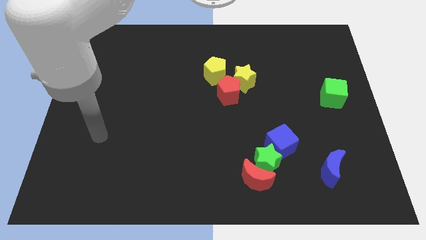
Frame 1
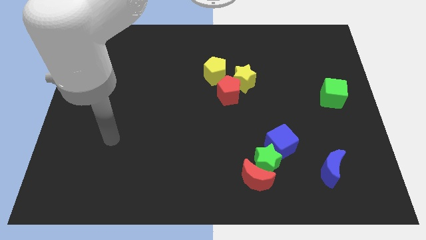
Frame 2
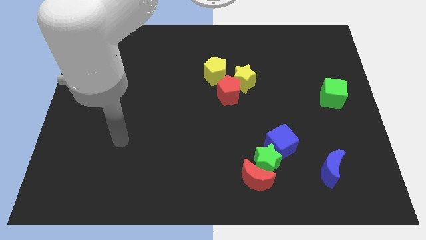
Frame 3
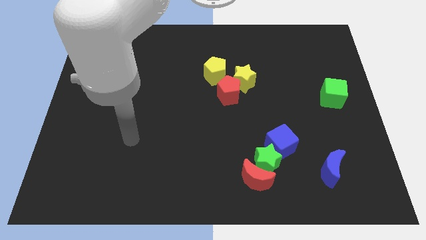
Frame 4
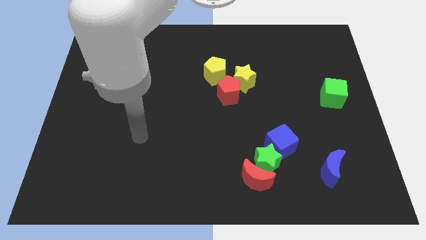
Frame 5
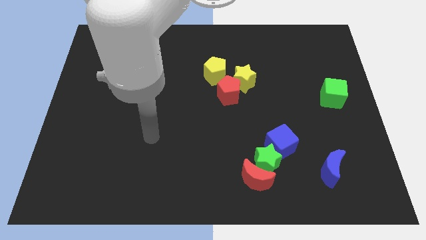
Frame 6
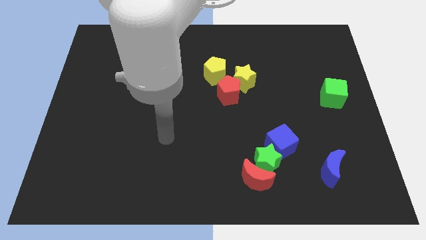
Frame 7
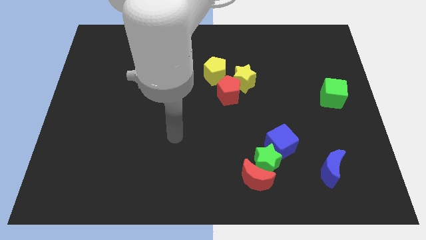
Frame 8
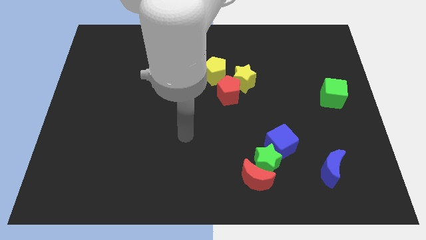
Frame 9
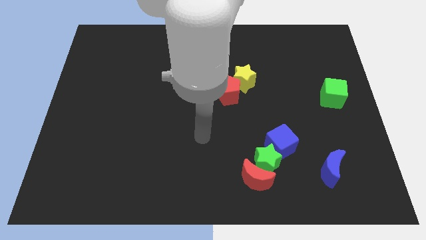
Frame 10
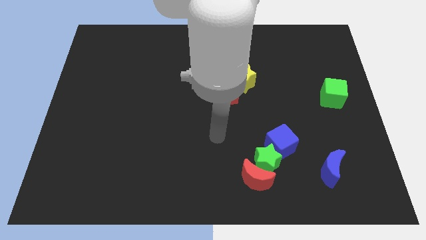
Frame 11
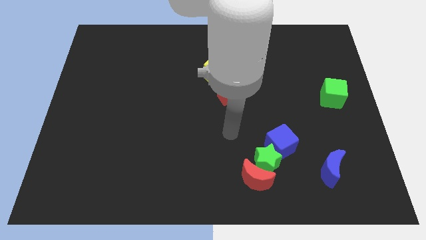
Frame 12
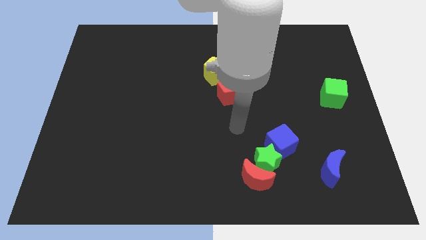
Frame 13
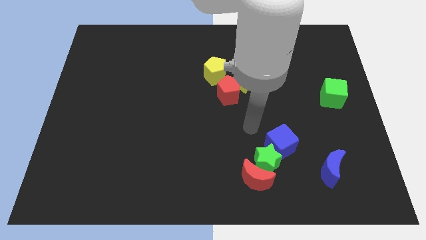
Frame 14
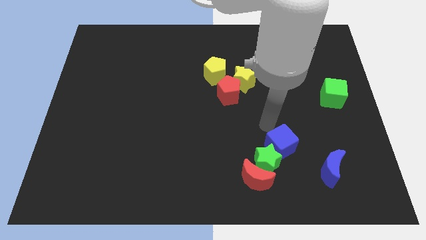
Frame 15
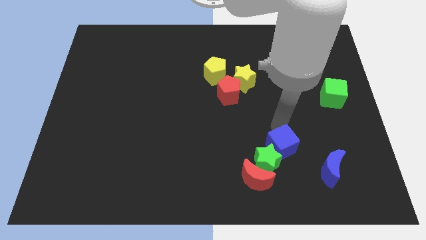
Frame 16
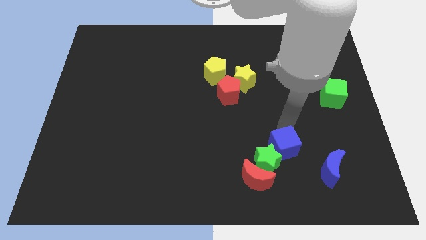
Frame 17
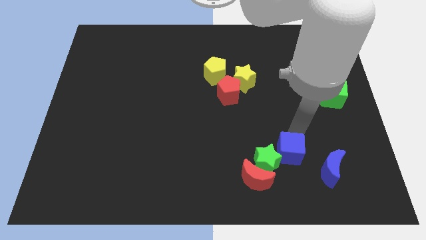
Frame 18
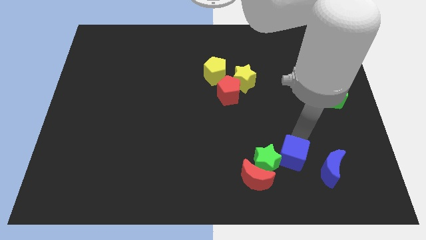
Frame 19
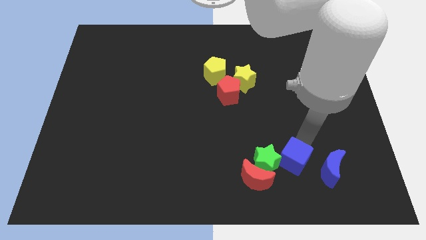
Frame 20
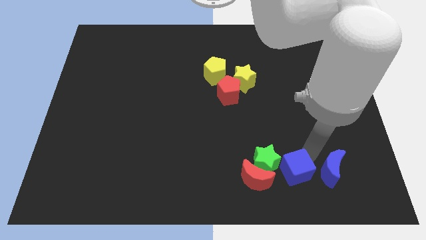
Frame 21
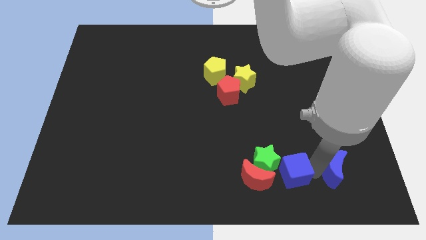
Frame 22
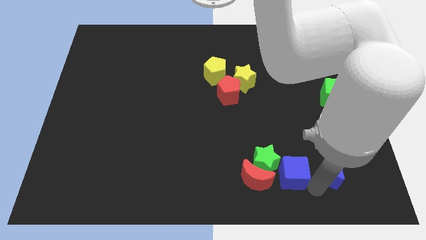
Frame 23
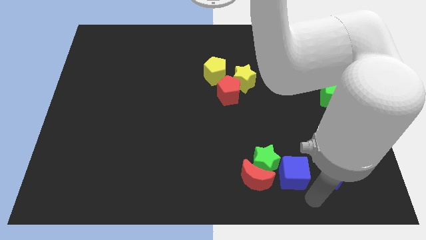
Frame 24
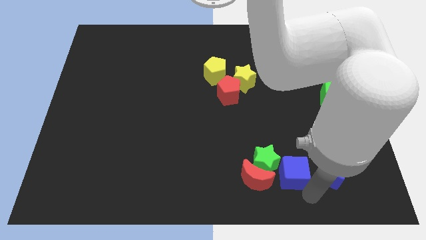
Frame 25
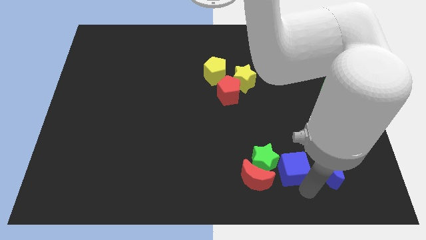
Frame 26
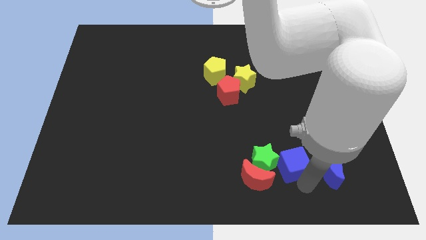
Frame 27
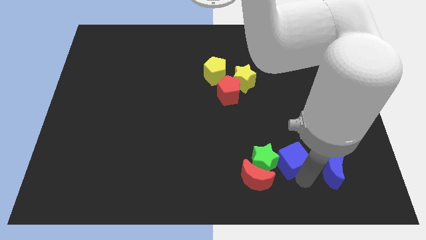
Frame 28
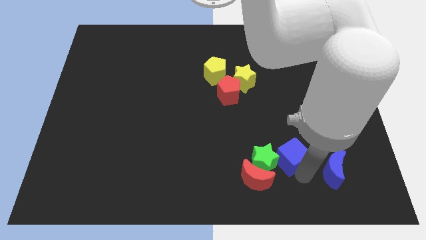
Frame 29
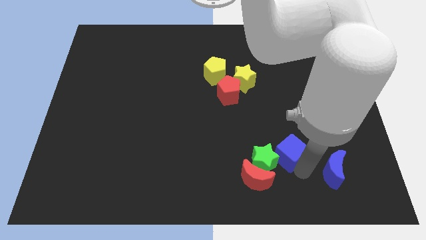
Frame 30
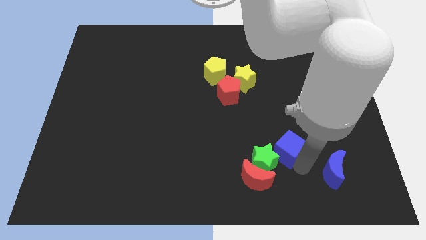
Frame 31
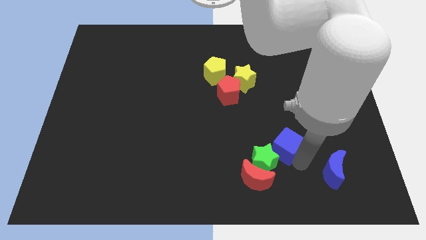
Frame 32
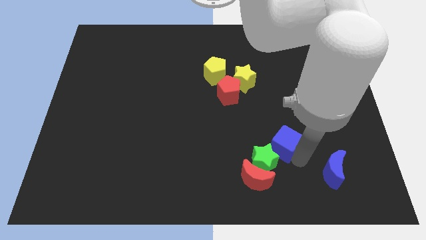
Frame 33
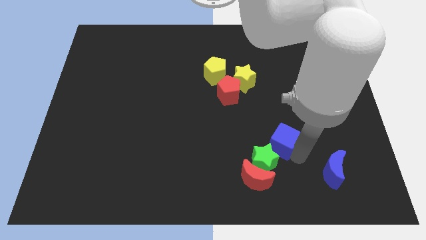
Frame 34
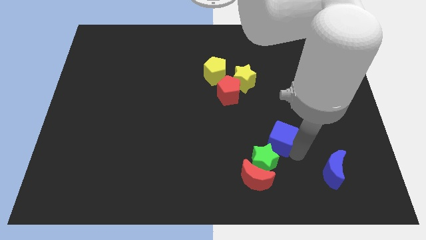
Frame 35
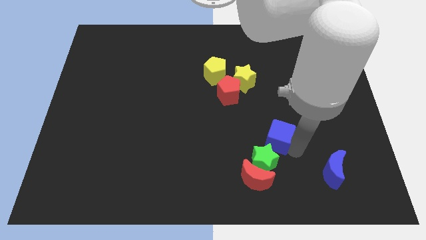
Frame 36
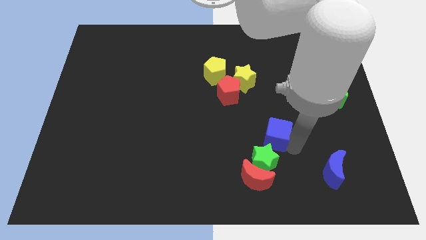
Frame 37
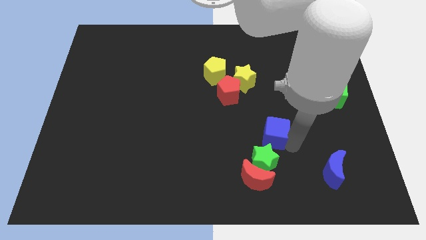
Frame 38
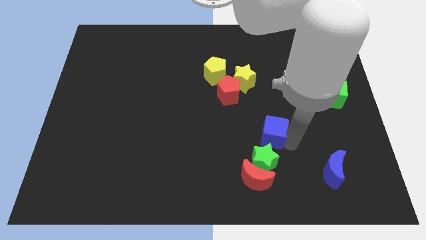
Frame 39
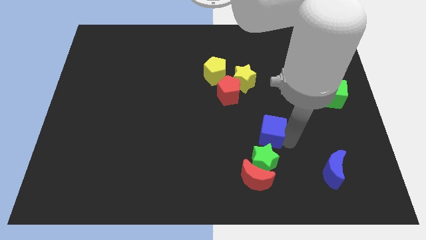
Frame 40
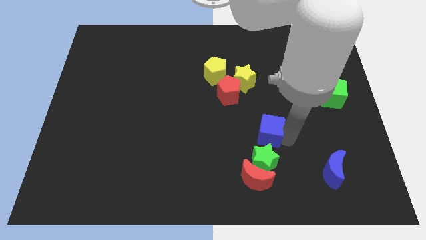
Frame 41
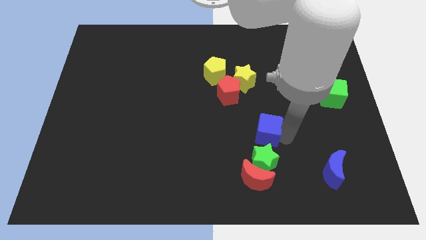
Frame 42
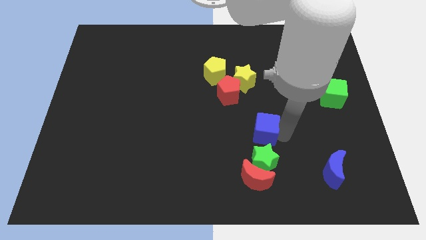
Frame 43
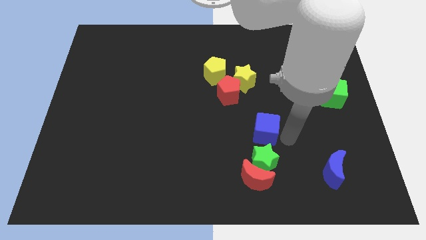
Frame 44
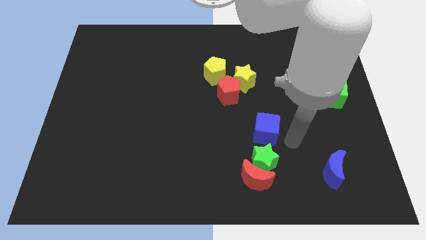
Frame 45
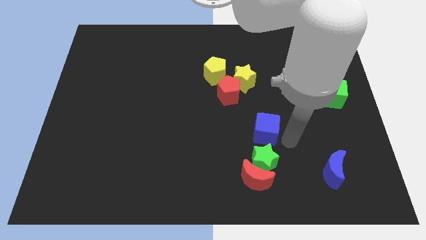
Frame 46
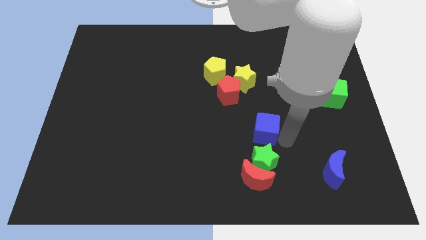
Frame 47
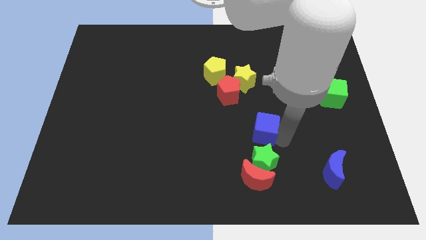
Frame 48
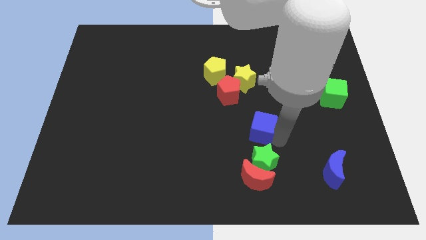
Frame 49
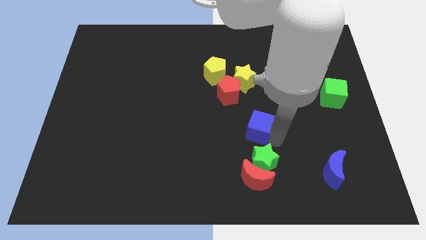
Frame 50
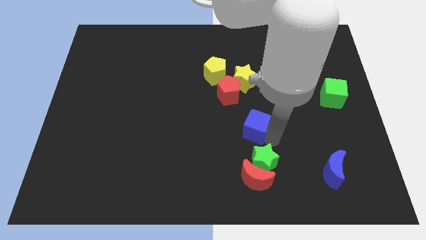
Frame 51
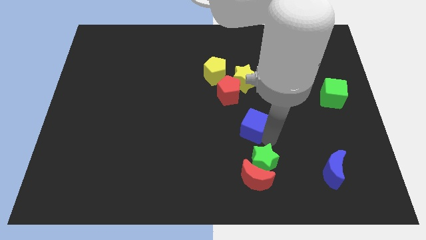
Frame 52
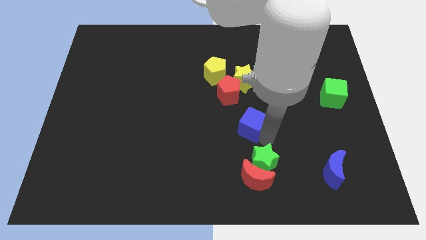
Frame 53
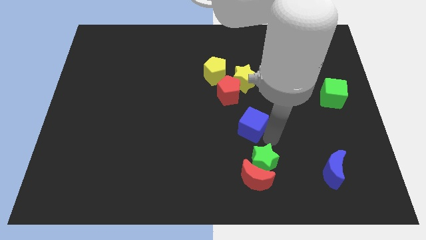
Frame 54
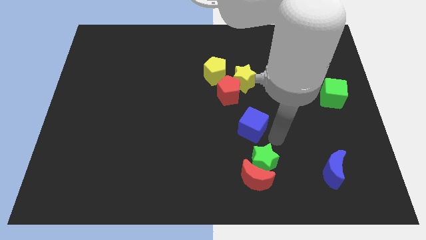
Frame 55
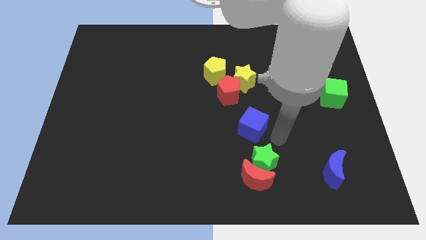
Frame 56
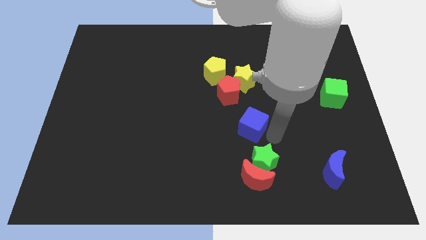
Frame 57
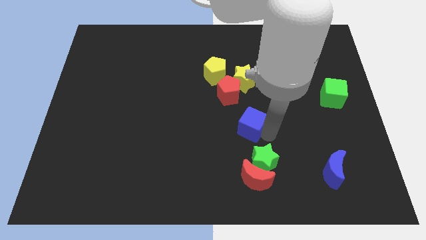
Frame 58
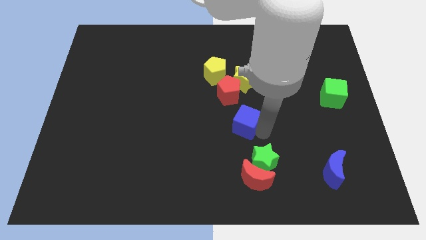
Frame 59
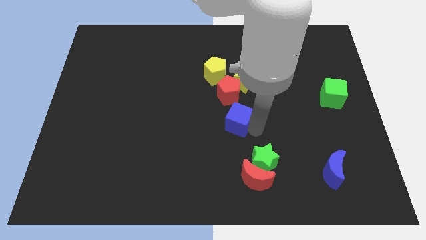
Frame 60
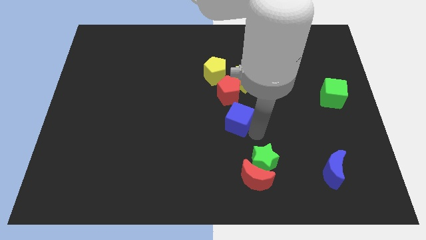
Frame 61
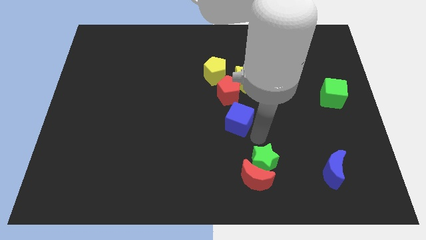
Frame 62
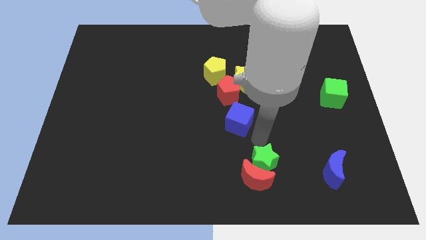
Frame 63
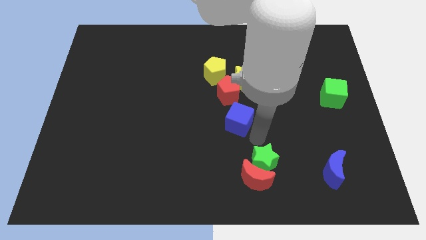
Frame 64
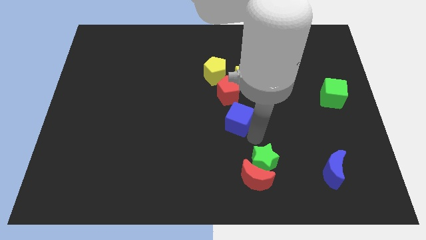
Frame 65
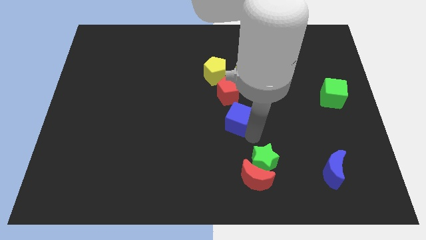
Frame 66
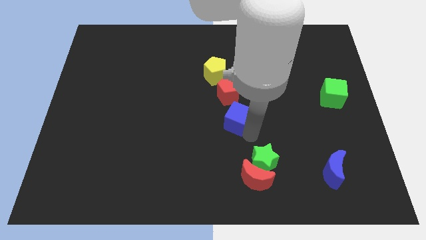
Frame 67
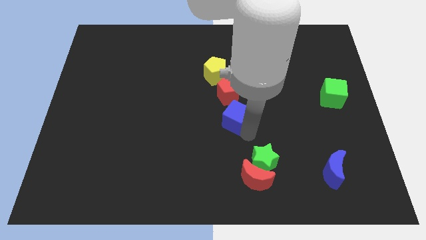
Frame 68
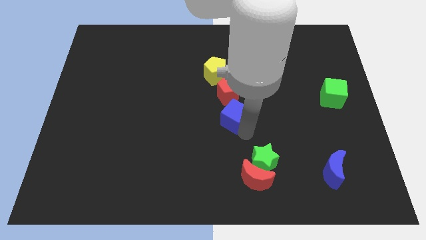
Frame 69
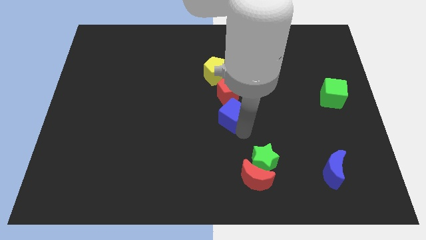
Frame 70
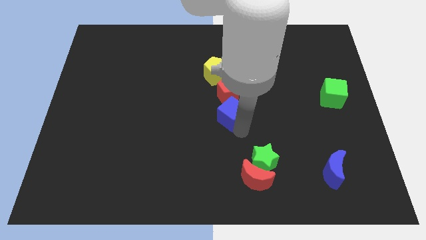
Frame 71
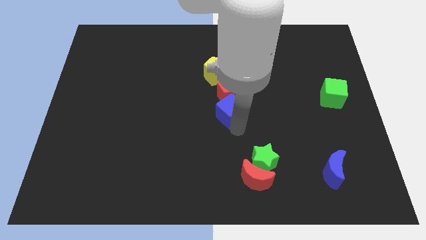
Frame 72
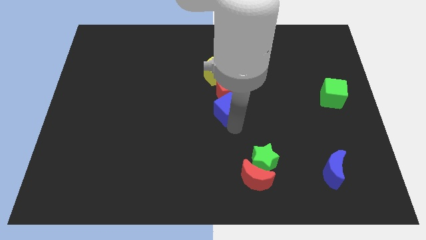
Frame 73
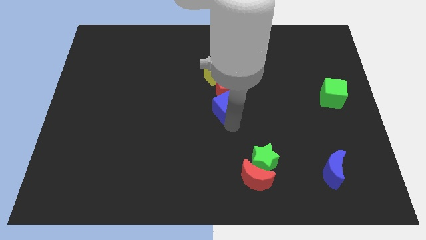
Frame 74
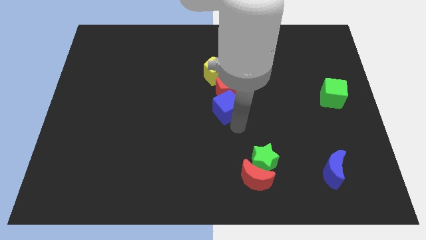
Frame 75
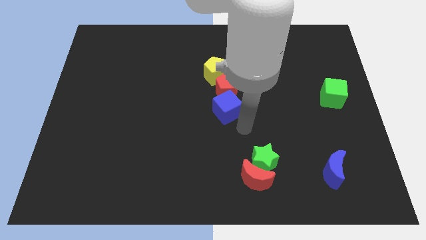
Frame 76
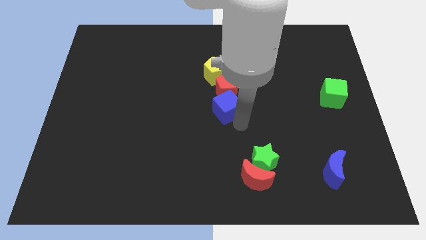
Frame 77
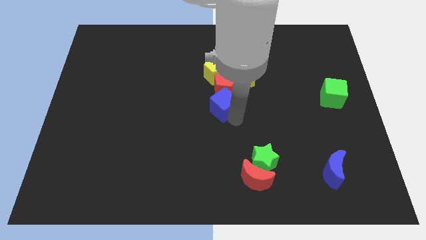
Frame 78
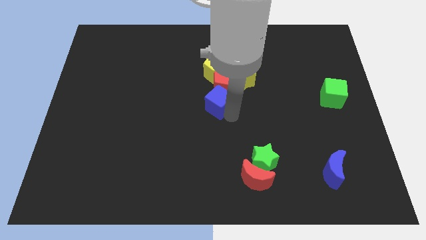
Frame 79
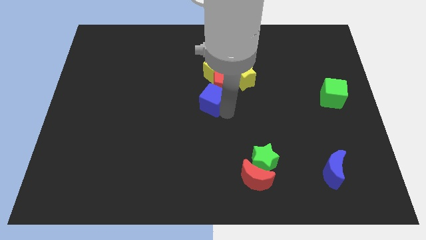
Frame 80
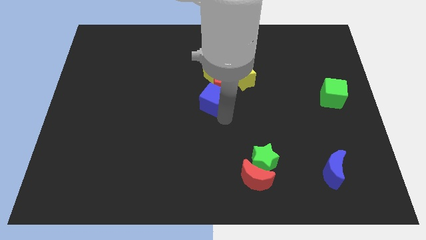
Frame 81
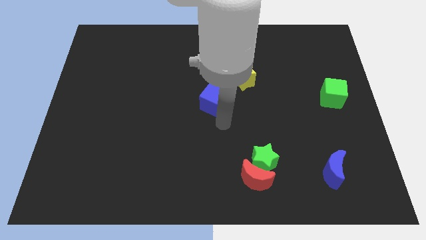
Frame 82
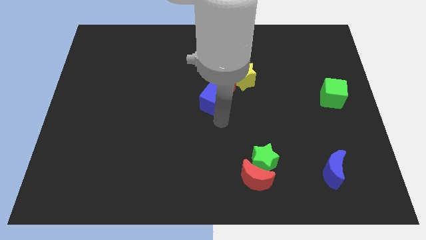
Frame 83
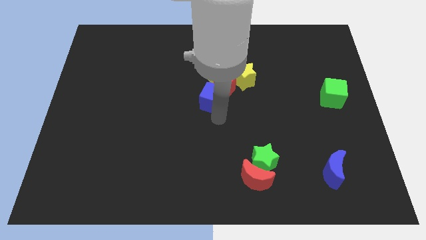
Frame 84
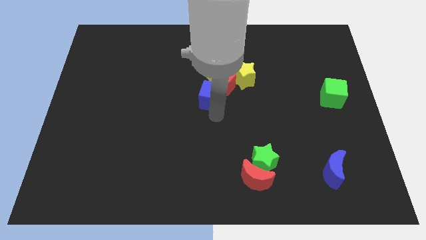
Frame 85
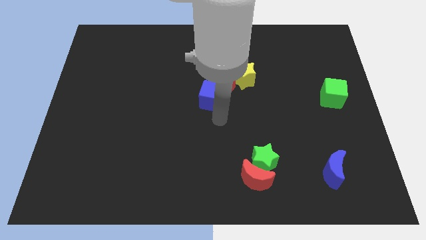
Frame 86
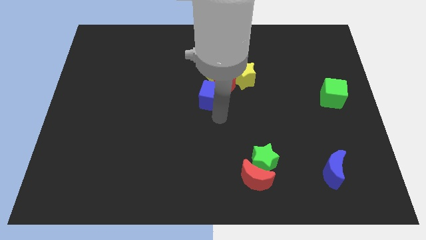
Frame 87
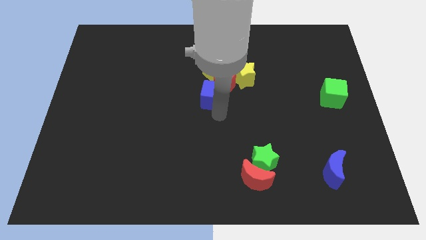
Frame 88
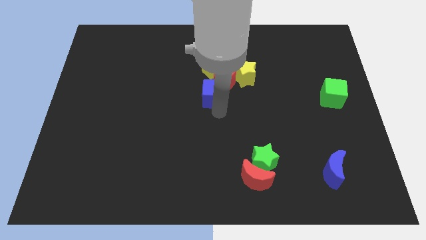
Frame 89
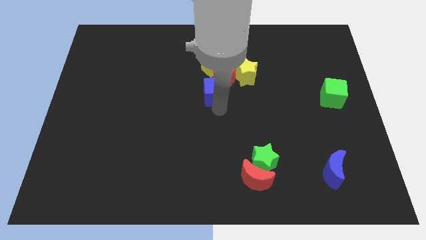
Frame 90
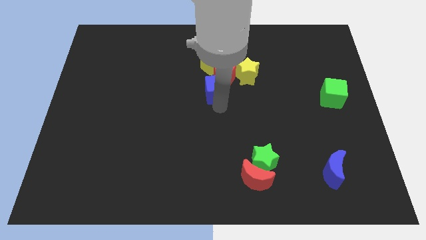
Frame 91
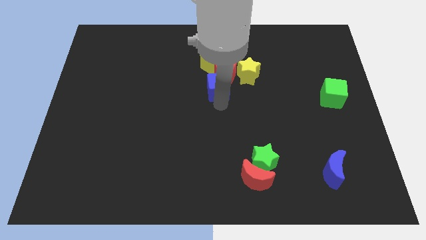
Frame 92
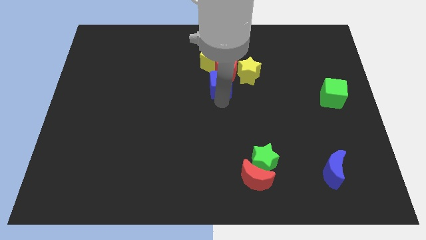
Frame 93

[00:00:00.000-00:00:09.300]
put the blue cube just left of the yellow star
